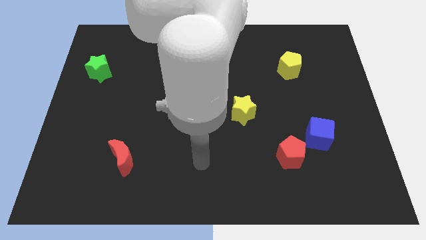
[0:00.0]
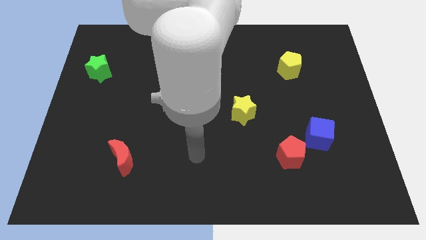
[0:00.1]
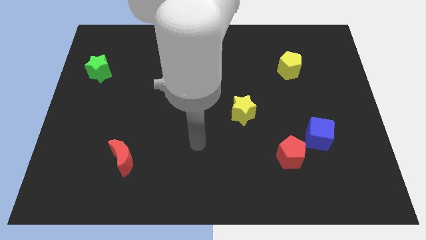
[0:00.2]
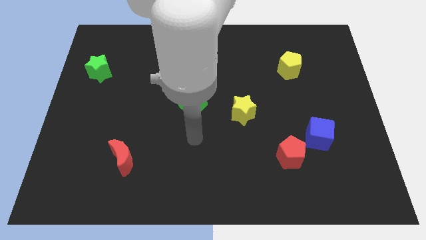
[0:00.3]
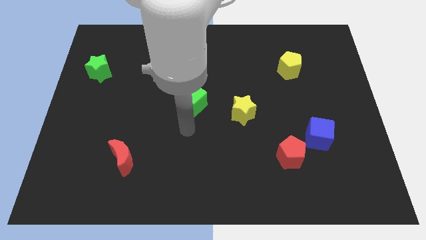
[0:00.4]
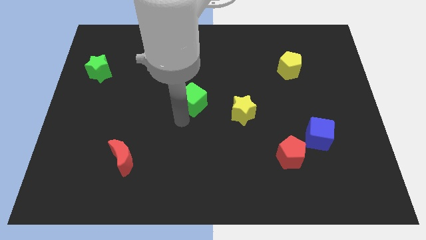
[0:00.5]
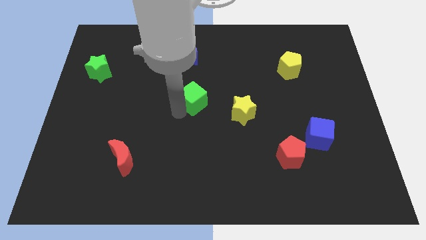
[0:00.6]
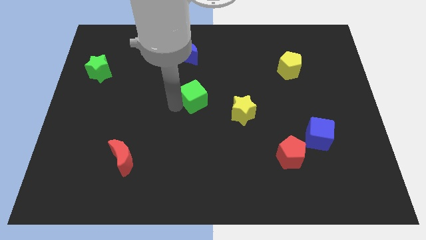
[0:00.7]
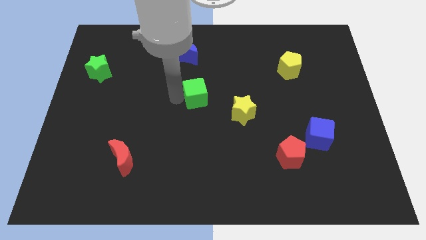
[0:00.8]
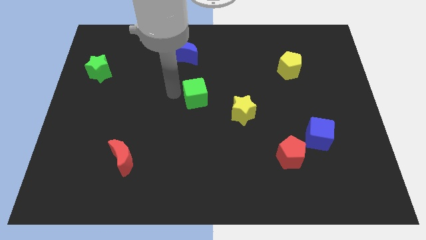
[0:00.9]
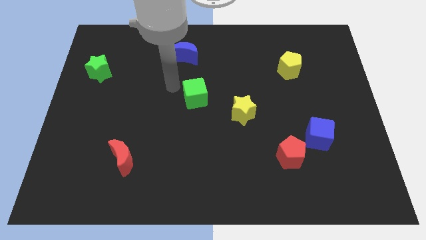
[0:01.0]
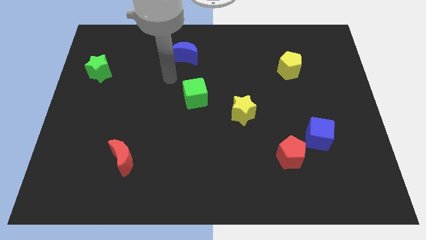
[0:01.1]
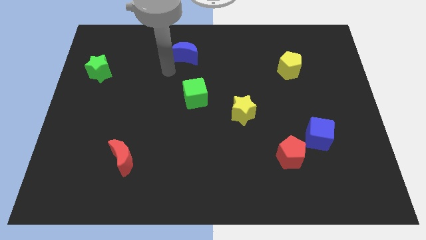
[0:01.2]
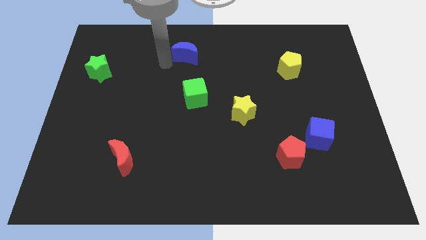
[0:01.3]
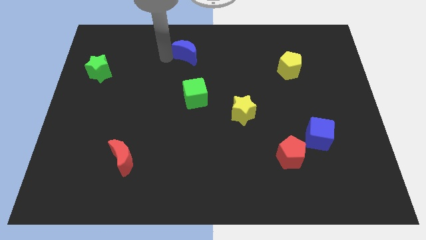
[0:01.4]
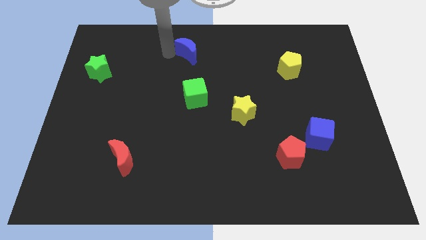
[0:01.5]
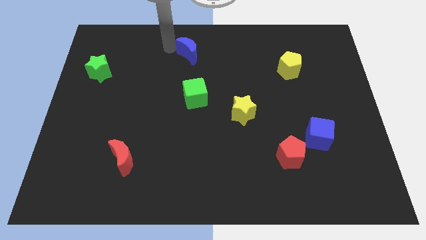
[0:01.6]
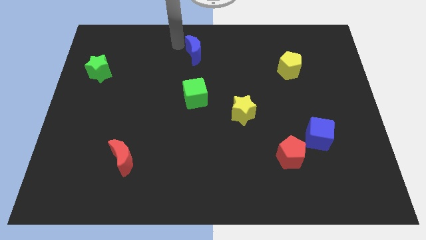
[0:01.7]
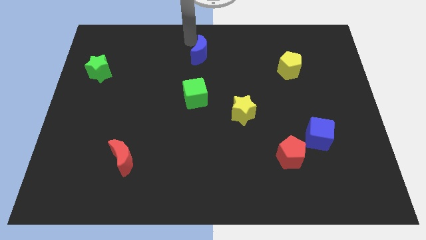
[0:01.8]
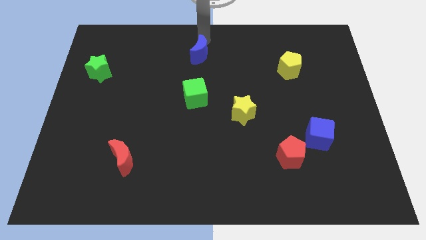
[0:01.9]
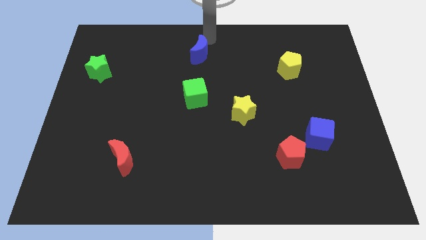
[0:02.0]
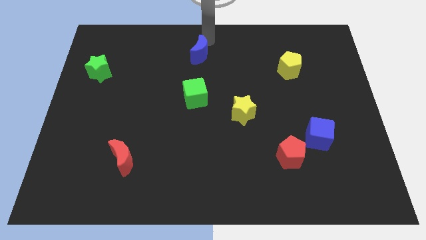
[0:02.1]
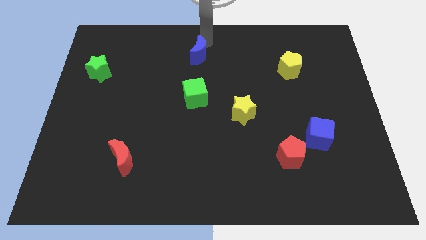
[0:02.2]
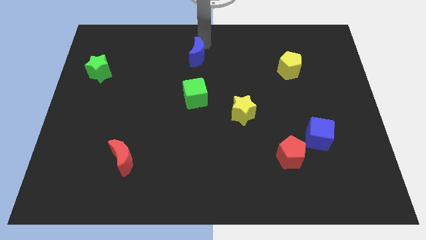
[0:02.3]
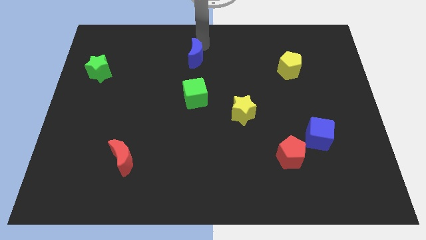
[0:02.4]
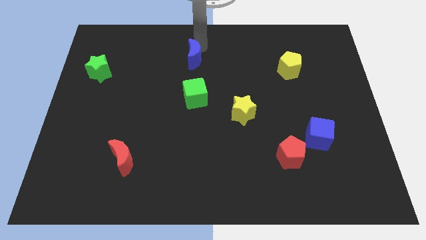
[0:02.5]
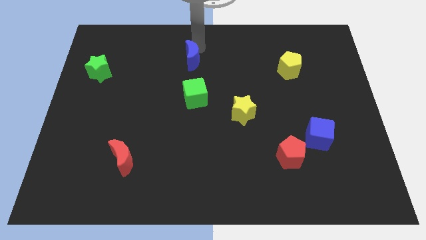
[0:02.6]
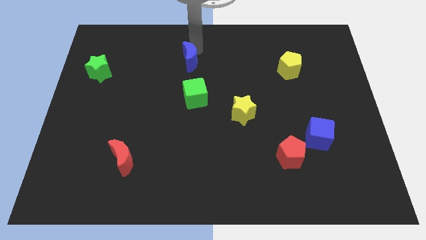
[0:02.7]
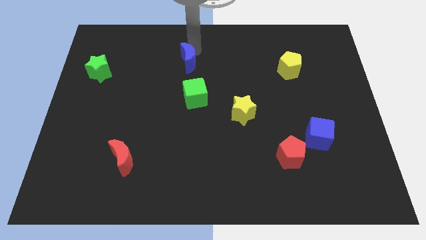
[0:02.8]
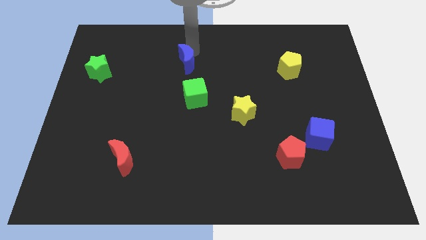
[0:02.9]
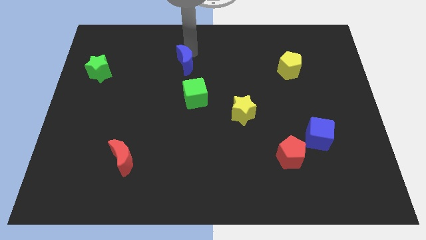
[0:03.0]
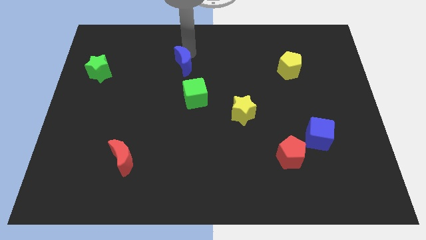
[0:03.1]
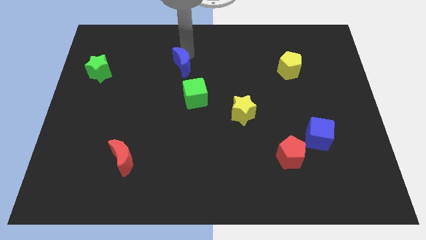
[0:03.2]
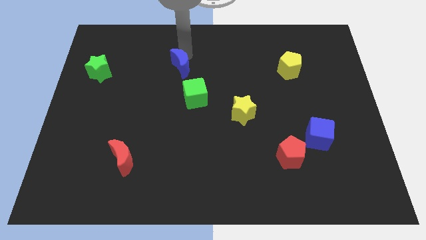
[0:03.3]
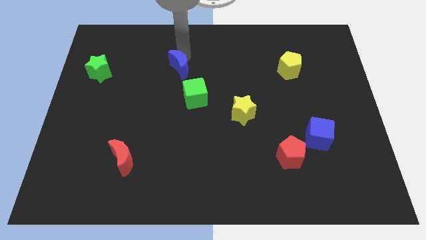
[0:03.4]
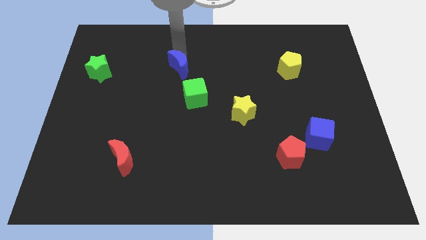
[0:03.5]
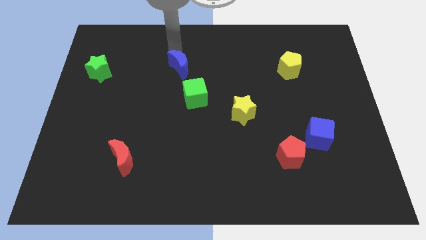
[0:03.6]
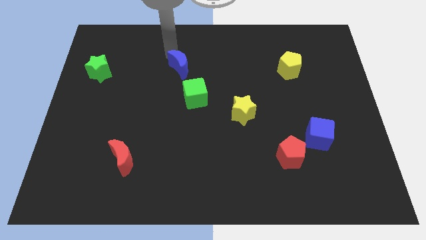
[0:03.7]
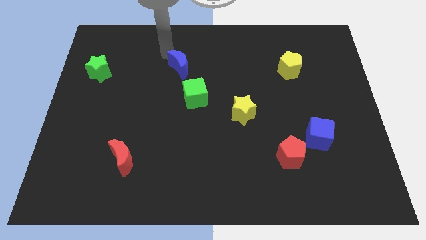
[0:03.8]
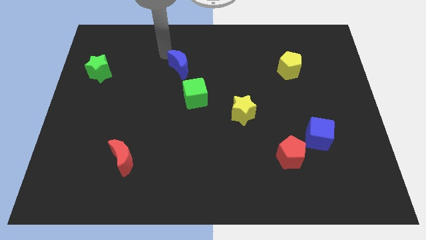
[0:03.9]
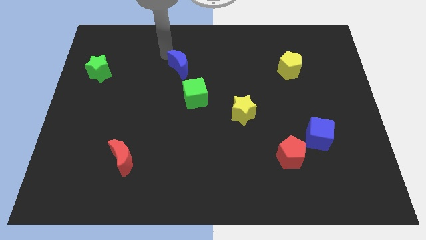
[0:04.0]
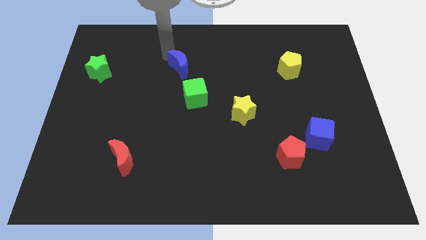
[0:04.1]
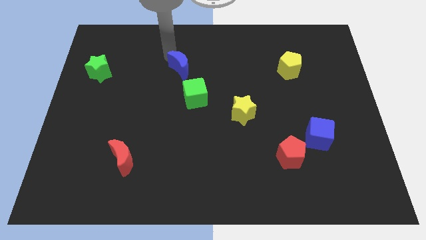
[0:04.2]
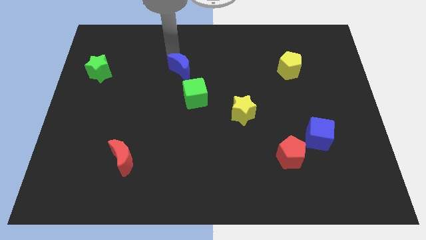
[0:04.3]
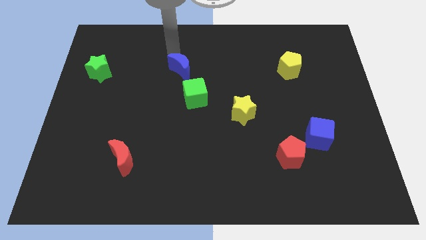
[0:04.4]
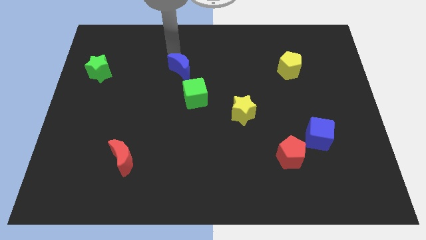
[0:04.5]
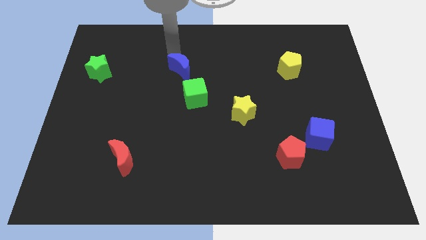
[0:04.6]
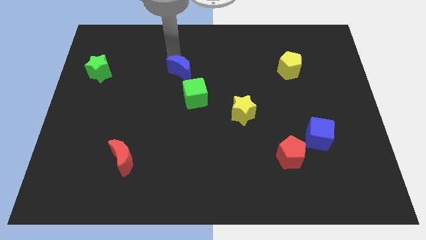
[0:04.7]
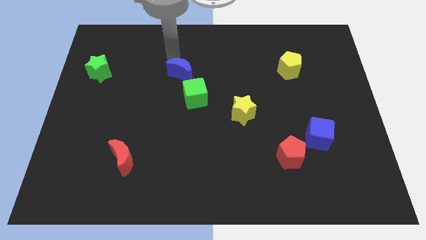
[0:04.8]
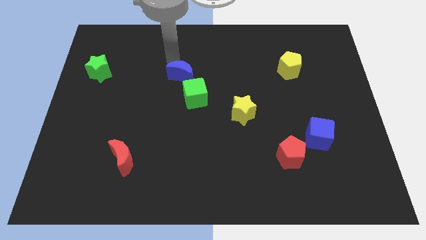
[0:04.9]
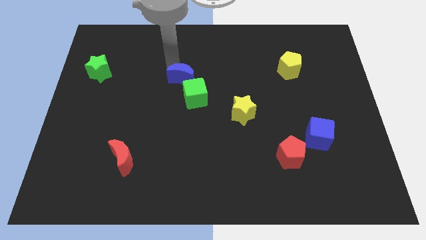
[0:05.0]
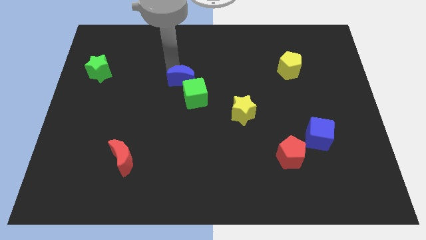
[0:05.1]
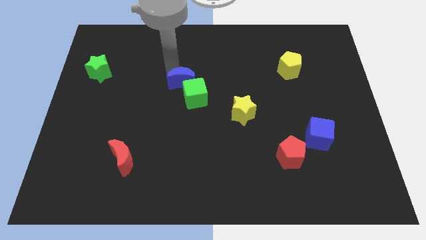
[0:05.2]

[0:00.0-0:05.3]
put the blue moon next to the green cube

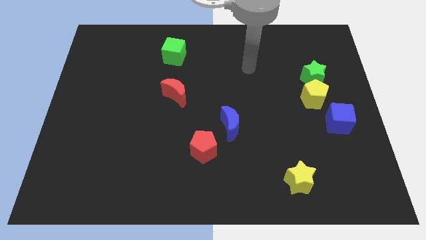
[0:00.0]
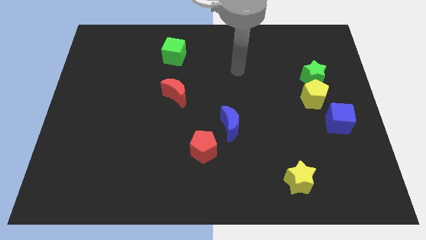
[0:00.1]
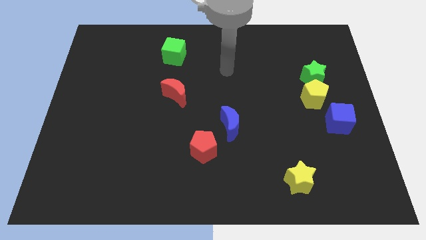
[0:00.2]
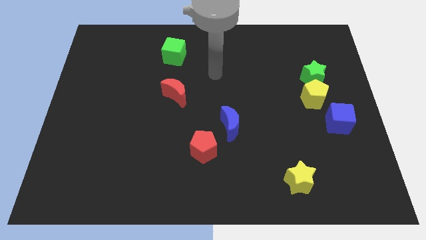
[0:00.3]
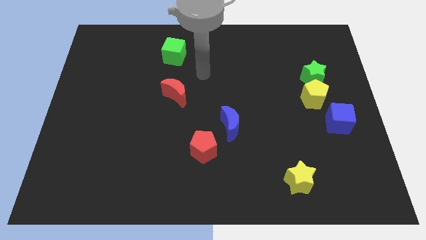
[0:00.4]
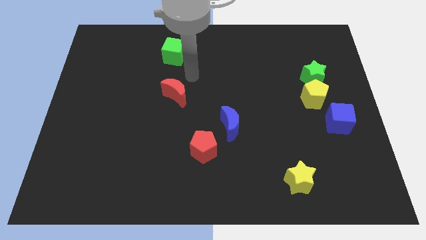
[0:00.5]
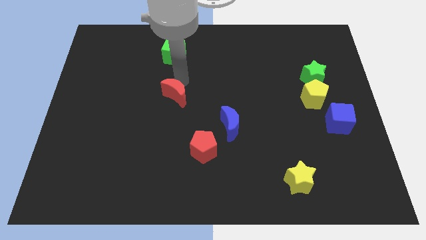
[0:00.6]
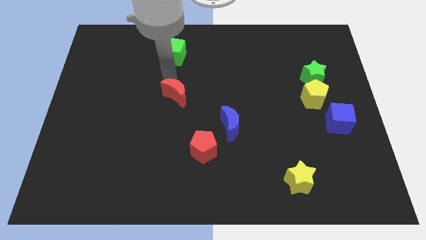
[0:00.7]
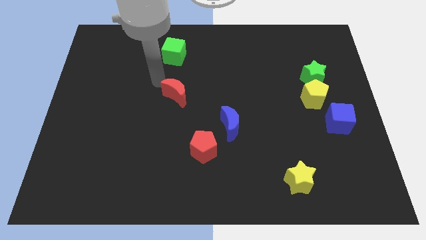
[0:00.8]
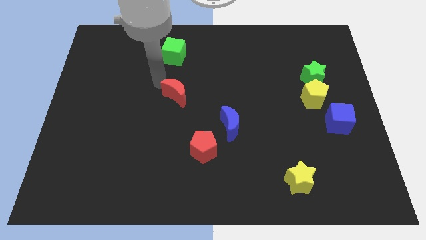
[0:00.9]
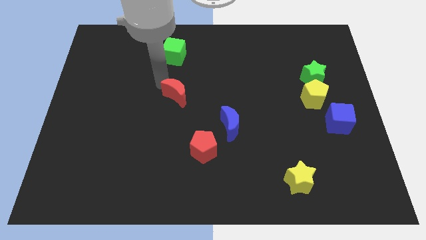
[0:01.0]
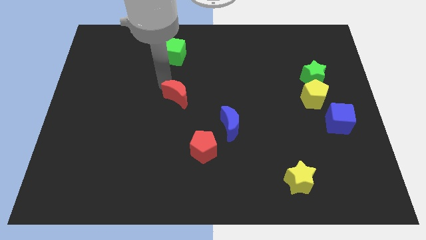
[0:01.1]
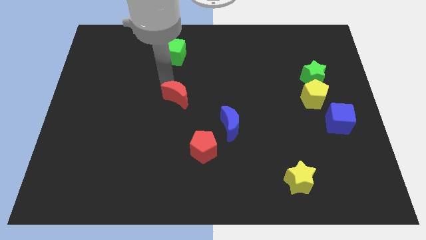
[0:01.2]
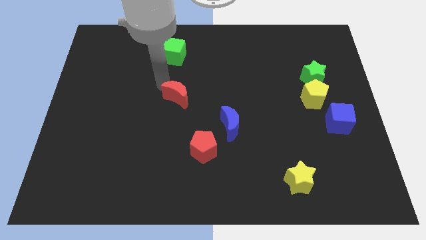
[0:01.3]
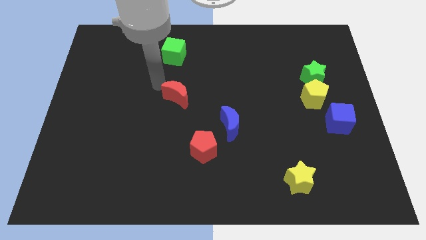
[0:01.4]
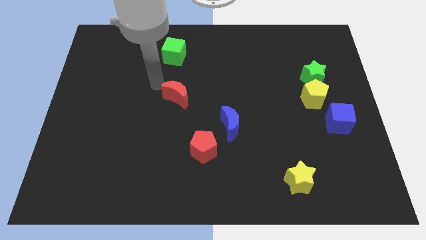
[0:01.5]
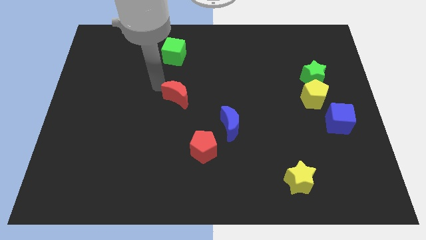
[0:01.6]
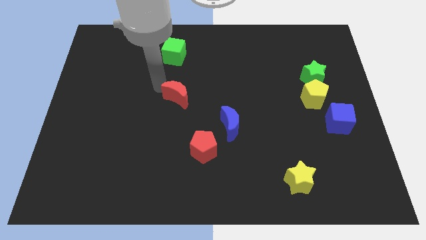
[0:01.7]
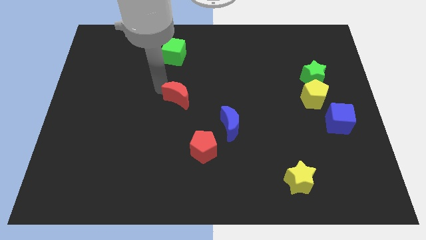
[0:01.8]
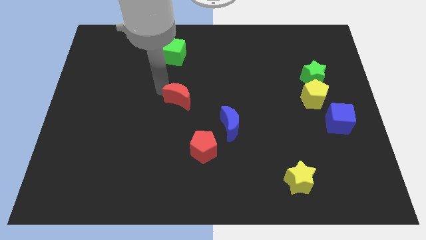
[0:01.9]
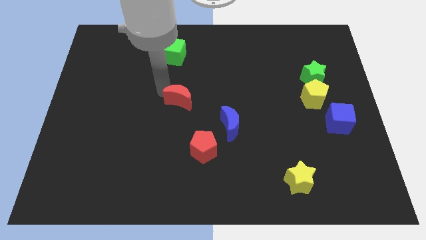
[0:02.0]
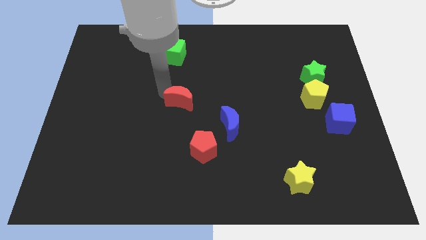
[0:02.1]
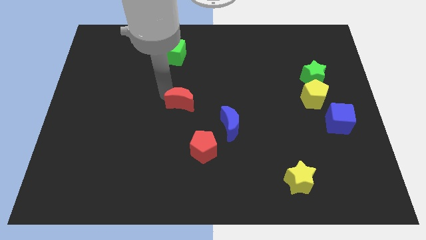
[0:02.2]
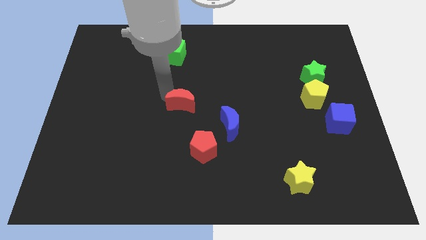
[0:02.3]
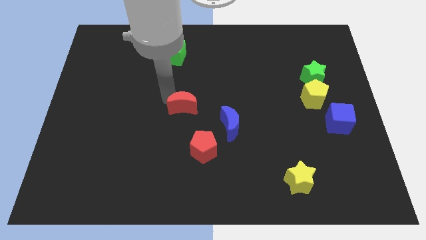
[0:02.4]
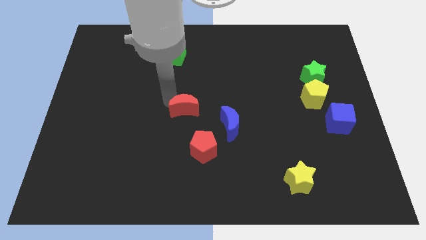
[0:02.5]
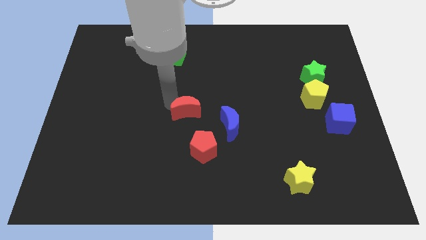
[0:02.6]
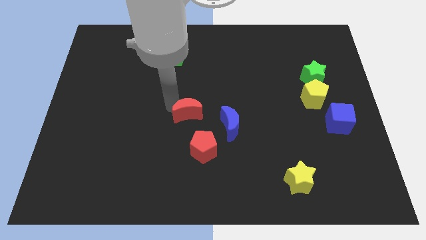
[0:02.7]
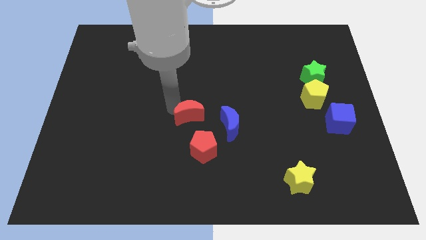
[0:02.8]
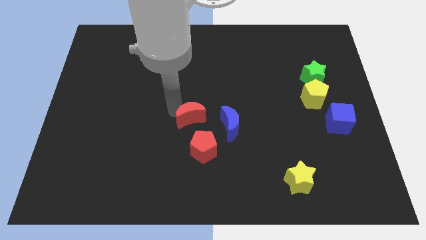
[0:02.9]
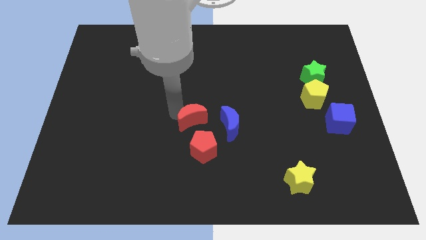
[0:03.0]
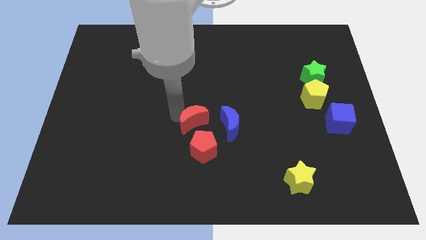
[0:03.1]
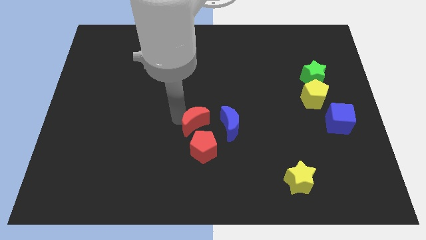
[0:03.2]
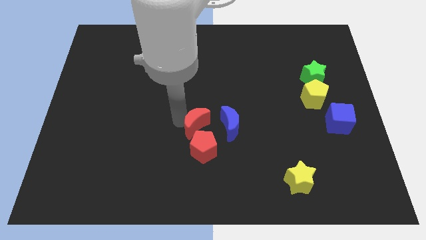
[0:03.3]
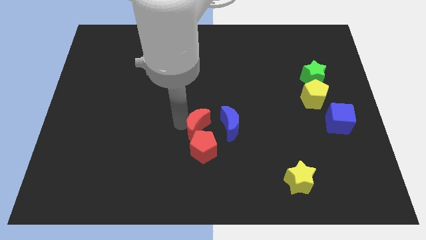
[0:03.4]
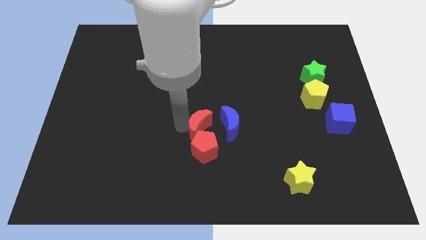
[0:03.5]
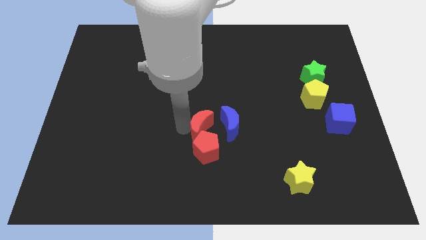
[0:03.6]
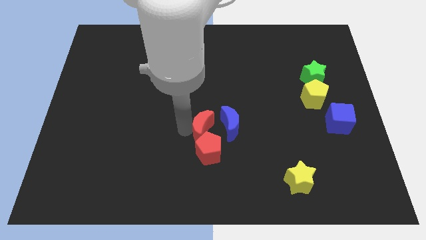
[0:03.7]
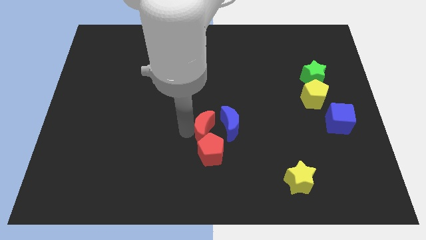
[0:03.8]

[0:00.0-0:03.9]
push the red moon next to the blue moon
